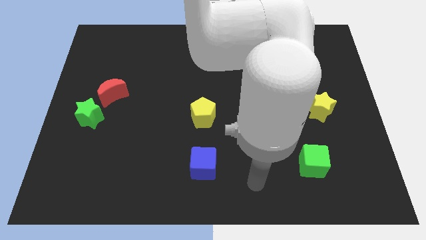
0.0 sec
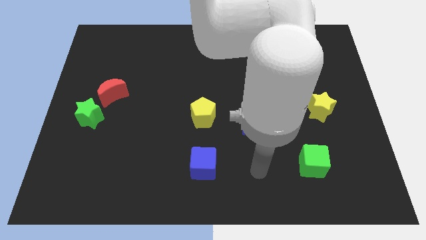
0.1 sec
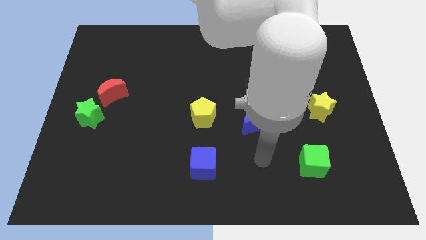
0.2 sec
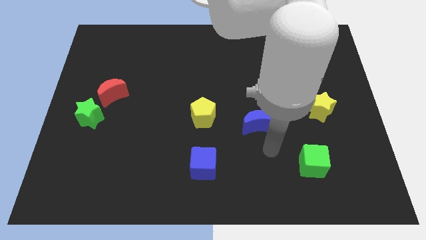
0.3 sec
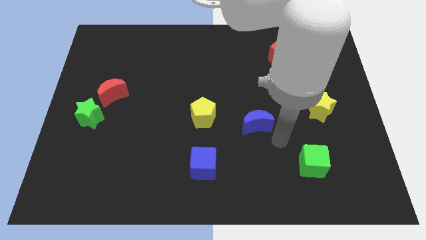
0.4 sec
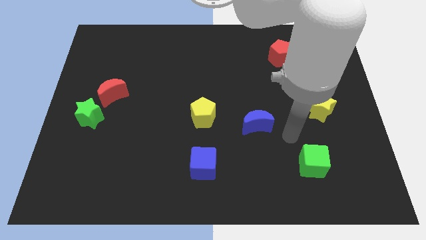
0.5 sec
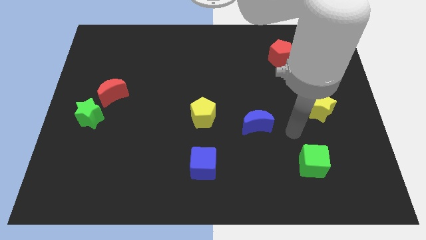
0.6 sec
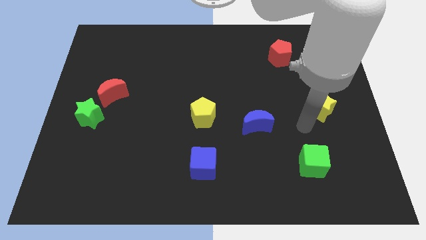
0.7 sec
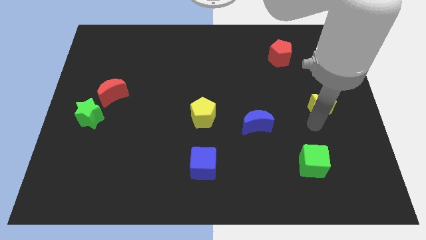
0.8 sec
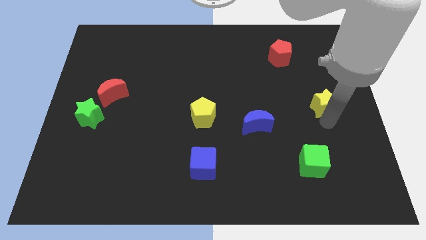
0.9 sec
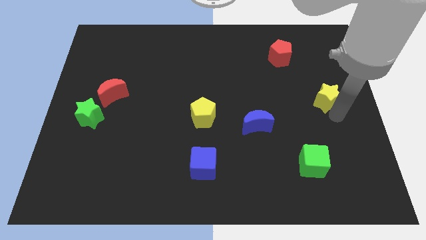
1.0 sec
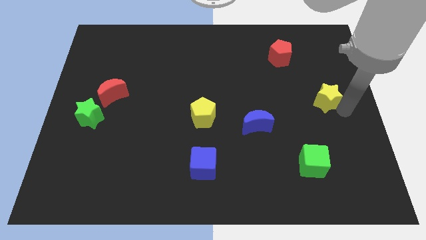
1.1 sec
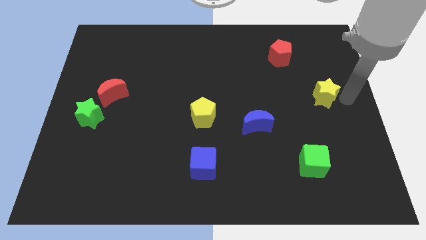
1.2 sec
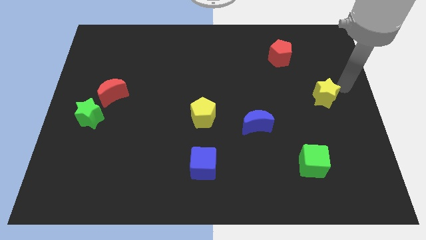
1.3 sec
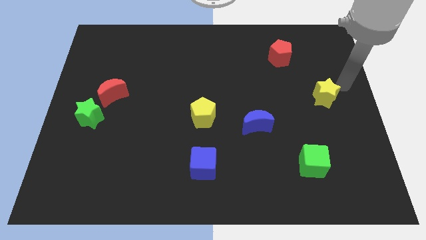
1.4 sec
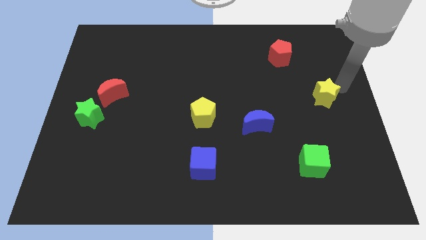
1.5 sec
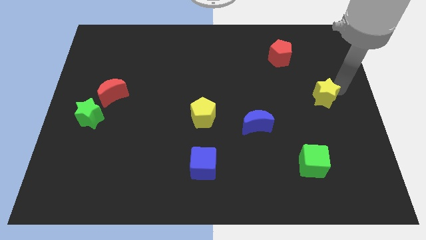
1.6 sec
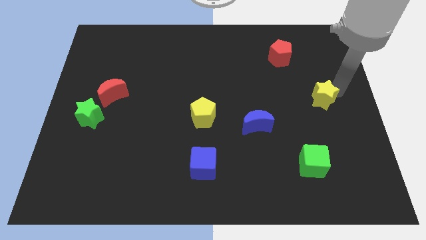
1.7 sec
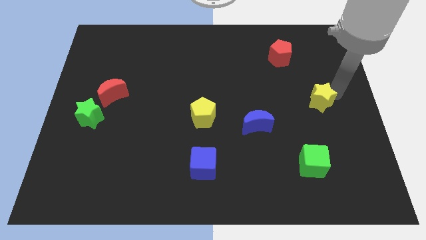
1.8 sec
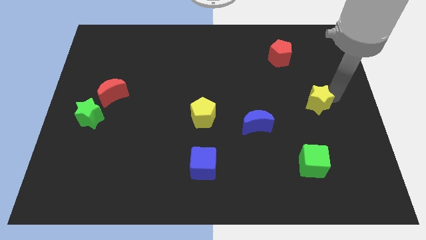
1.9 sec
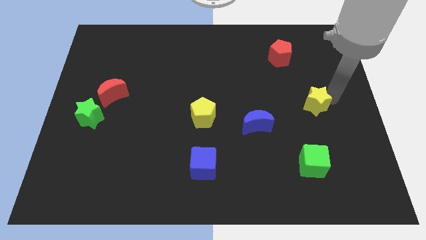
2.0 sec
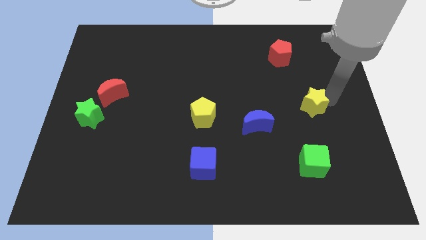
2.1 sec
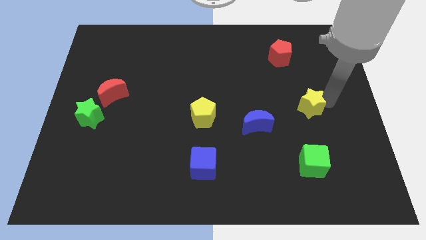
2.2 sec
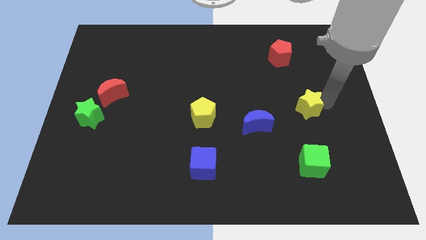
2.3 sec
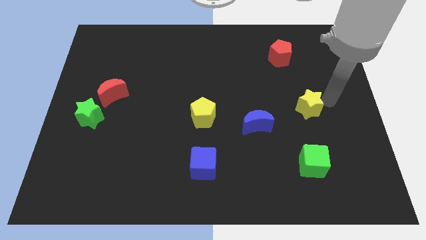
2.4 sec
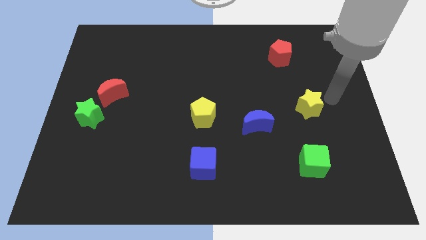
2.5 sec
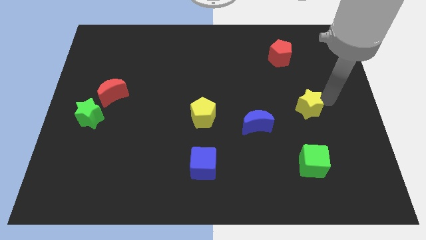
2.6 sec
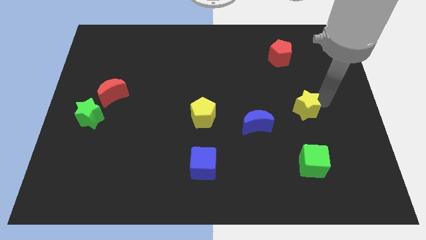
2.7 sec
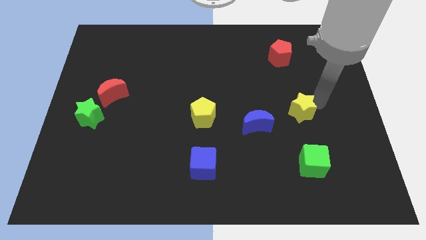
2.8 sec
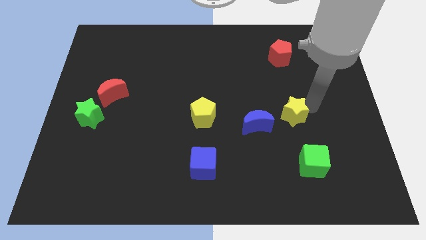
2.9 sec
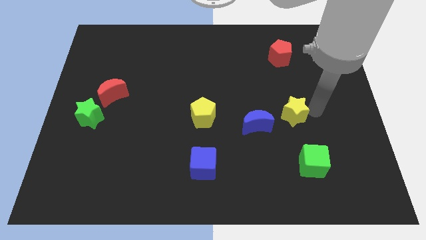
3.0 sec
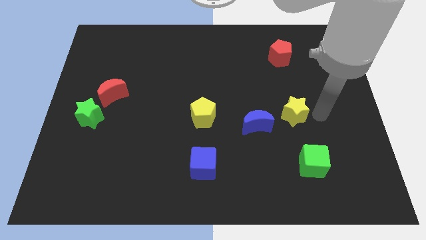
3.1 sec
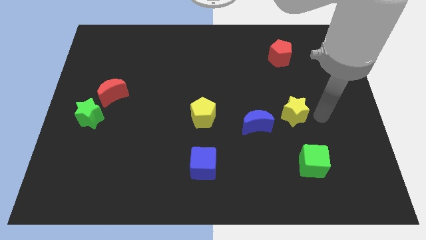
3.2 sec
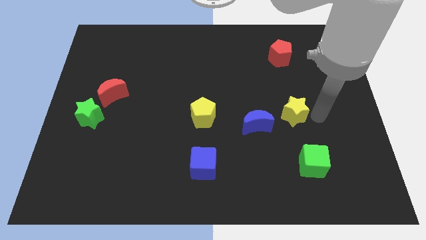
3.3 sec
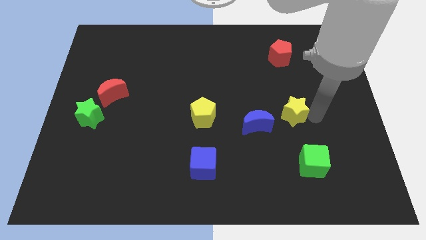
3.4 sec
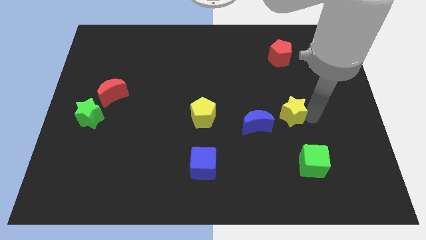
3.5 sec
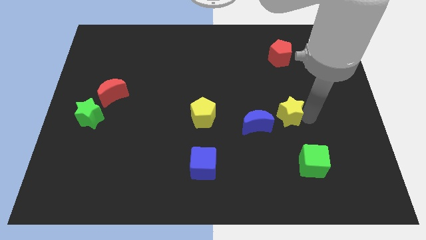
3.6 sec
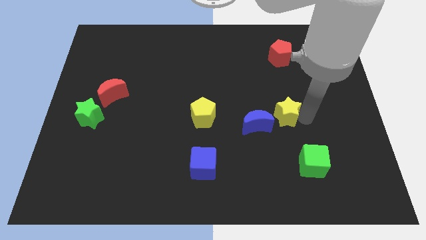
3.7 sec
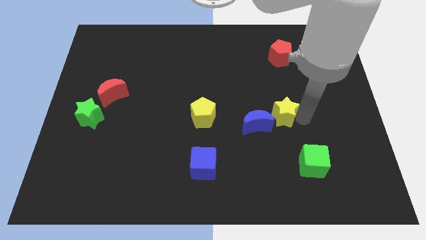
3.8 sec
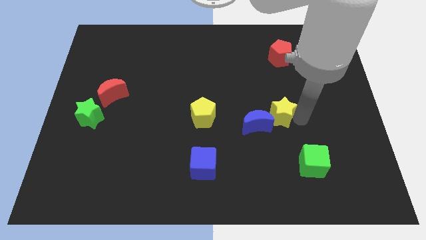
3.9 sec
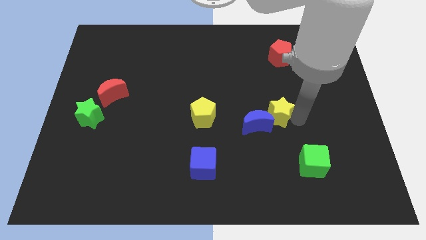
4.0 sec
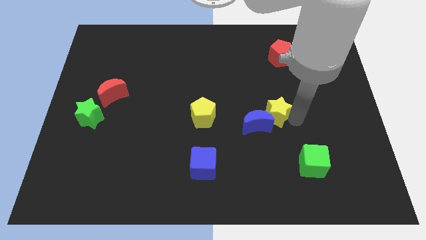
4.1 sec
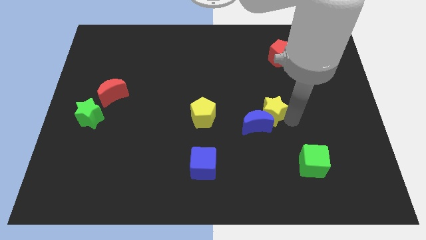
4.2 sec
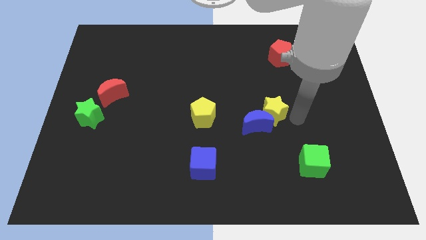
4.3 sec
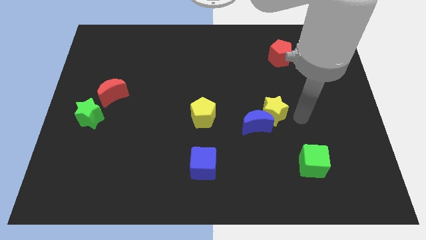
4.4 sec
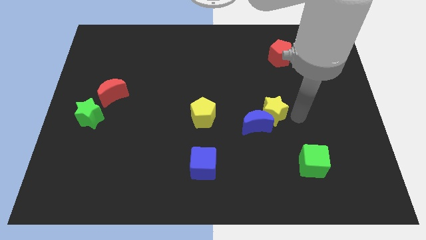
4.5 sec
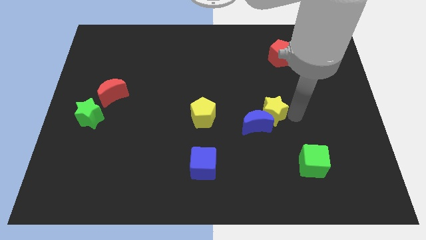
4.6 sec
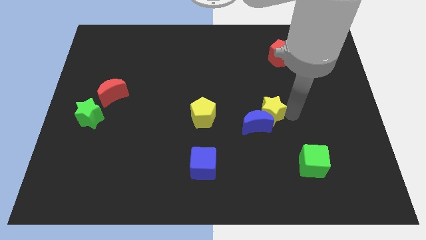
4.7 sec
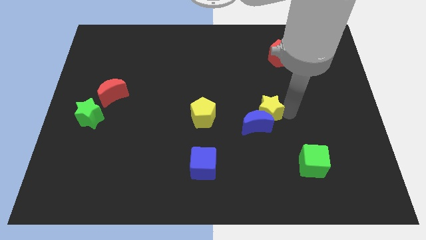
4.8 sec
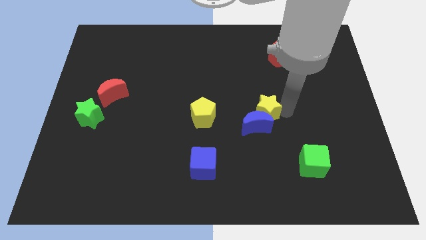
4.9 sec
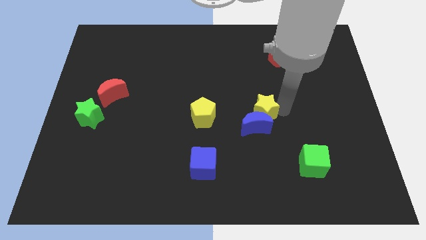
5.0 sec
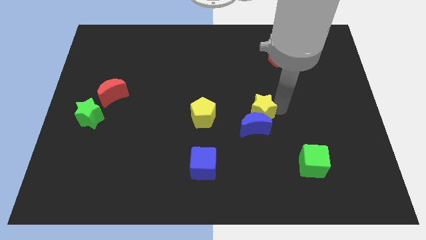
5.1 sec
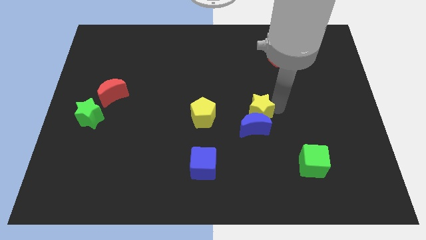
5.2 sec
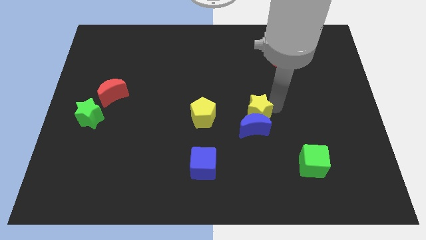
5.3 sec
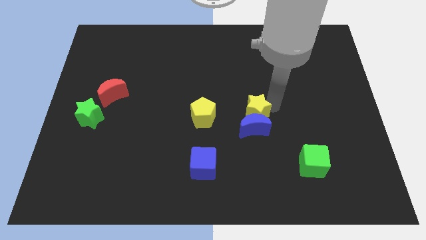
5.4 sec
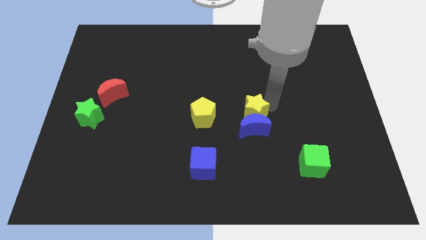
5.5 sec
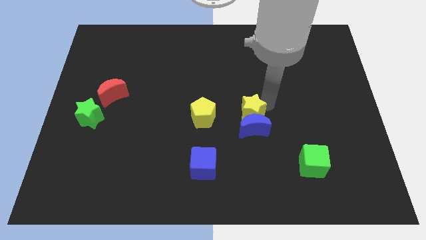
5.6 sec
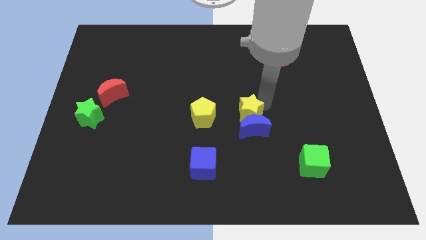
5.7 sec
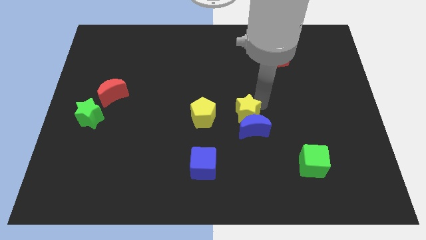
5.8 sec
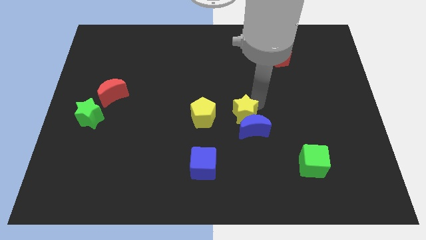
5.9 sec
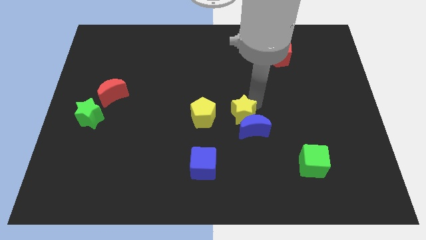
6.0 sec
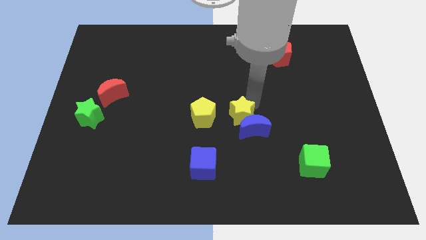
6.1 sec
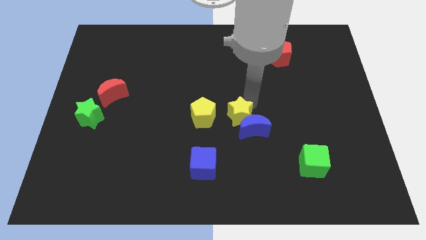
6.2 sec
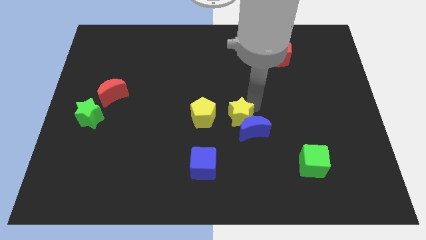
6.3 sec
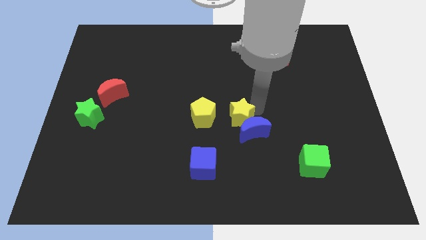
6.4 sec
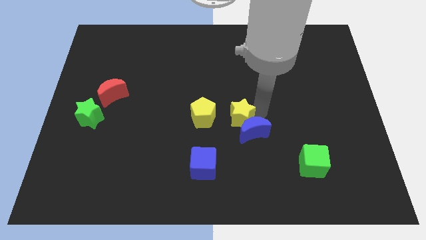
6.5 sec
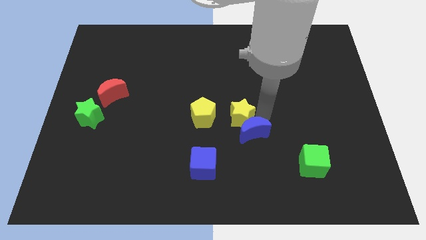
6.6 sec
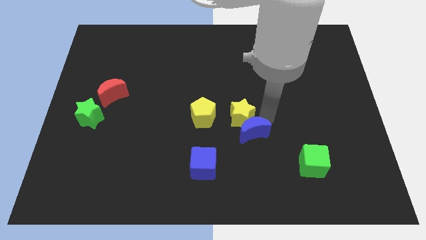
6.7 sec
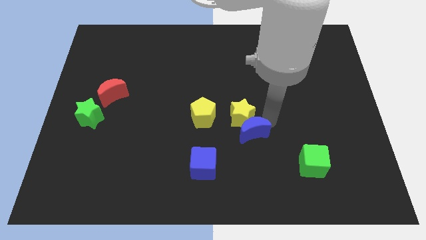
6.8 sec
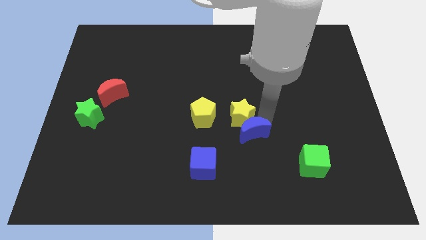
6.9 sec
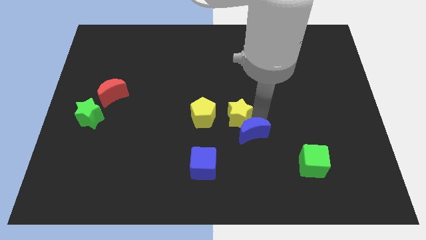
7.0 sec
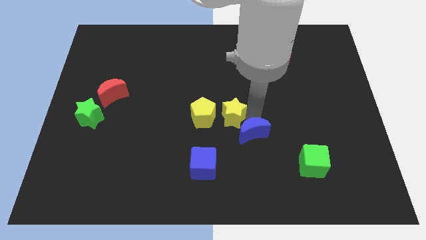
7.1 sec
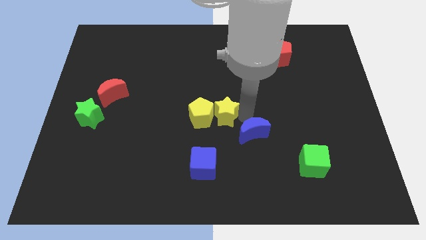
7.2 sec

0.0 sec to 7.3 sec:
slide the yellow star towards the yellow pentagon

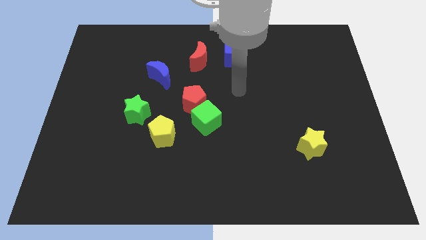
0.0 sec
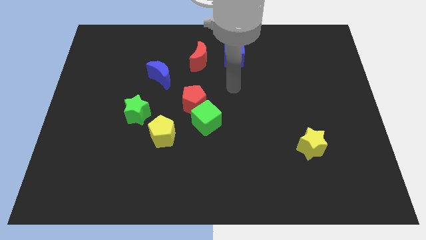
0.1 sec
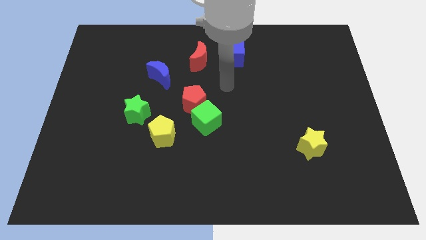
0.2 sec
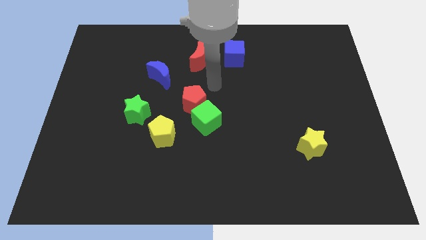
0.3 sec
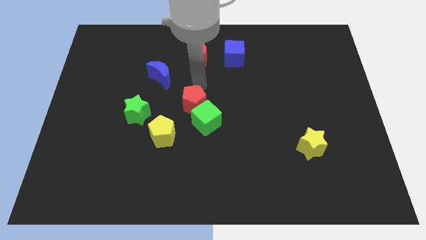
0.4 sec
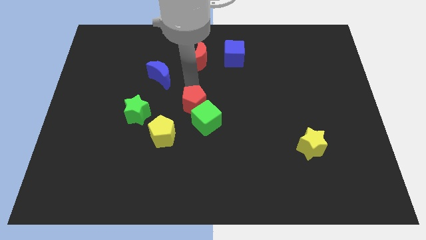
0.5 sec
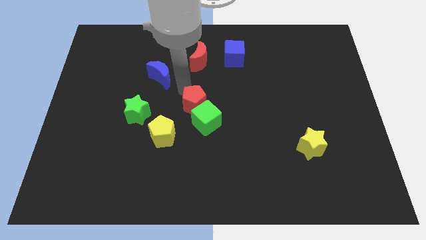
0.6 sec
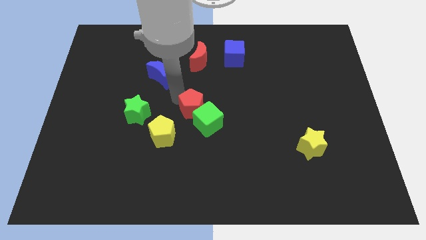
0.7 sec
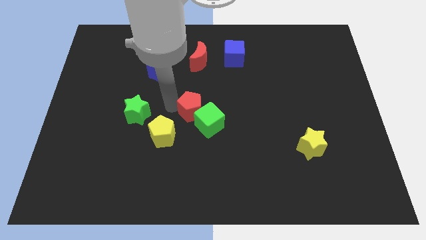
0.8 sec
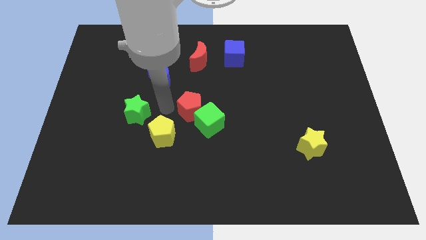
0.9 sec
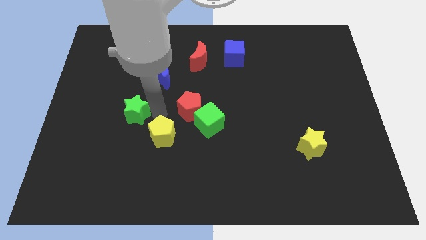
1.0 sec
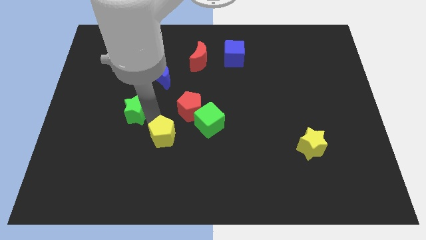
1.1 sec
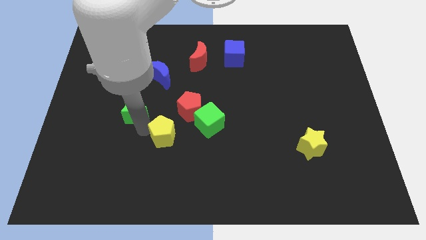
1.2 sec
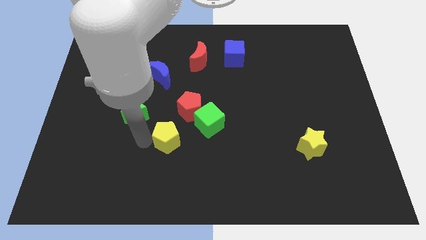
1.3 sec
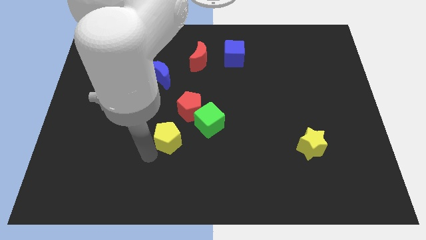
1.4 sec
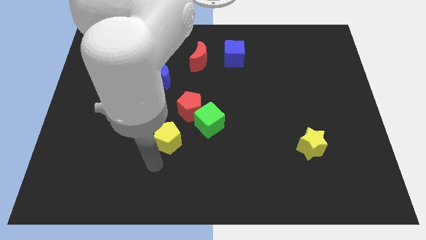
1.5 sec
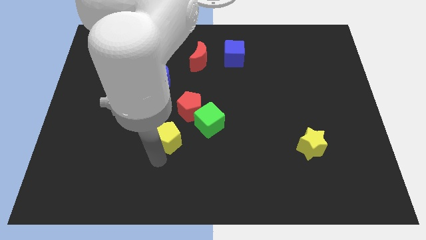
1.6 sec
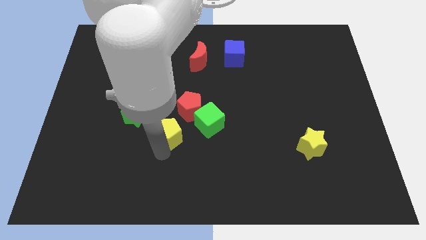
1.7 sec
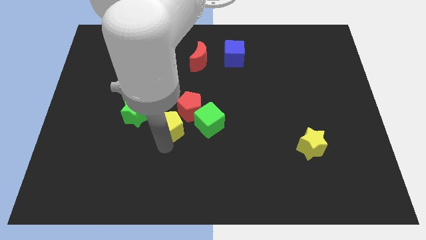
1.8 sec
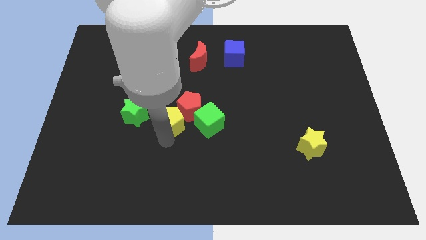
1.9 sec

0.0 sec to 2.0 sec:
put the yellow pentagon towards the red pentagon
